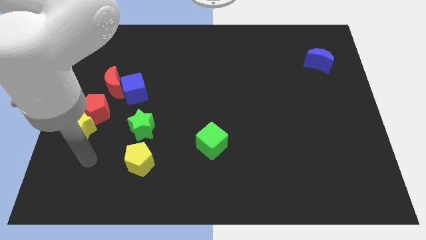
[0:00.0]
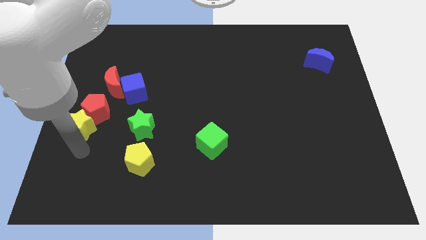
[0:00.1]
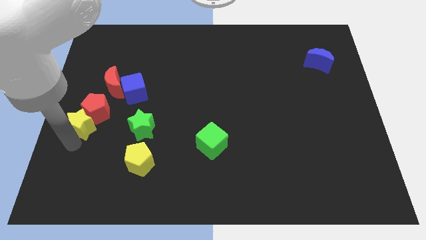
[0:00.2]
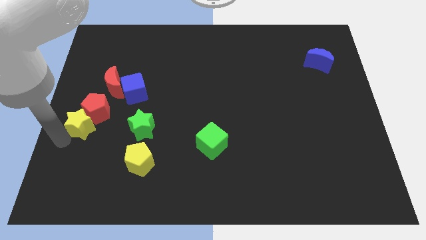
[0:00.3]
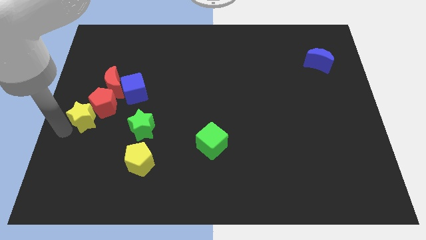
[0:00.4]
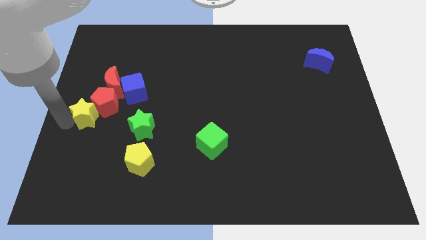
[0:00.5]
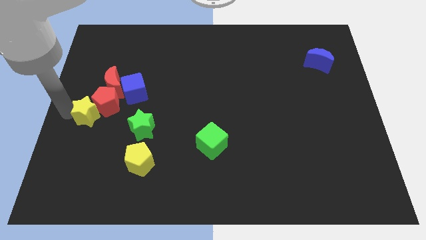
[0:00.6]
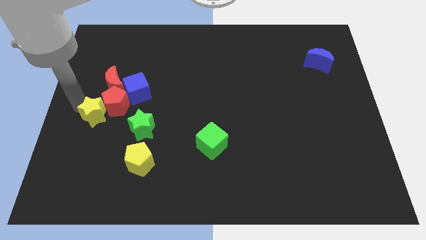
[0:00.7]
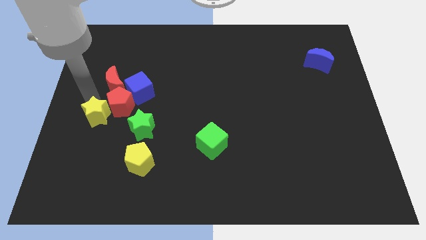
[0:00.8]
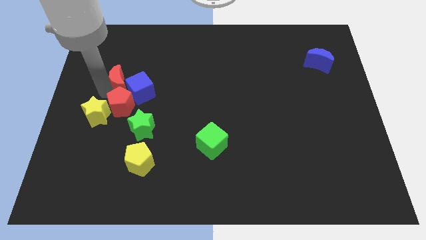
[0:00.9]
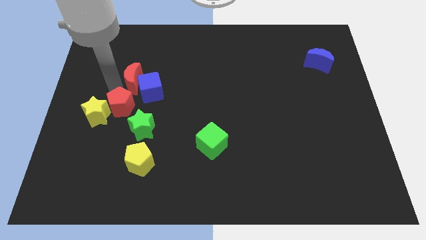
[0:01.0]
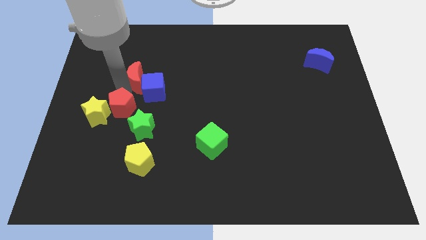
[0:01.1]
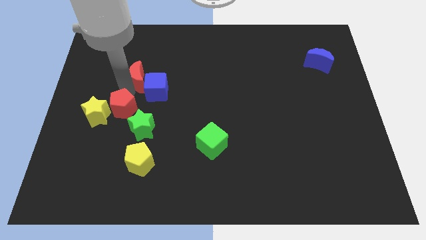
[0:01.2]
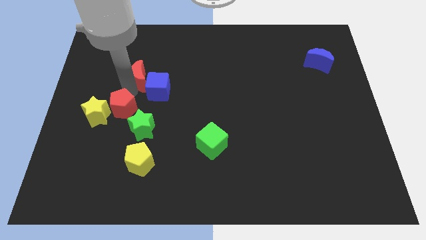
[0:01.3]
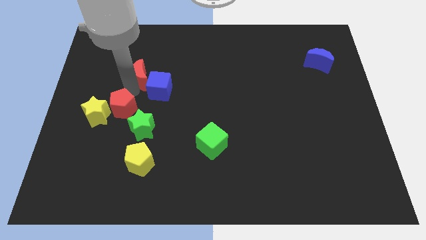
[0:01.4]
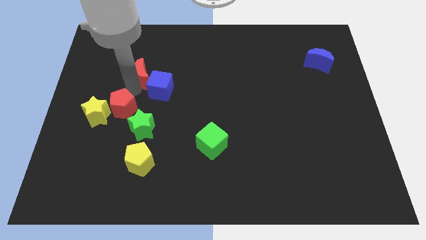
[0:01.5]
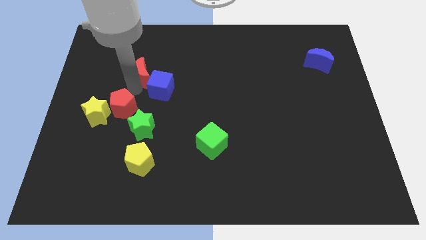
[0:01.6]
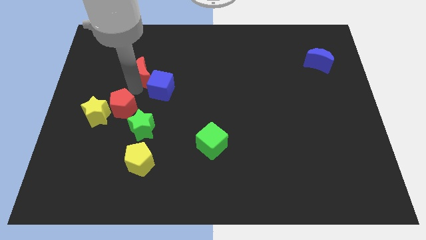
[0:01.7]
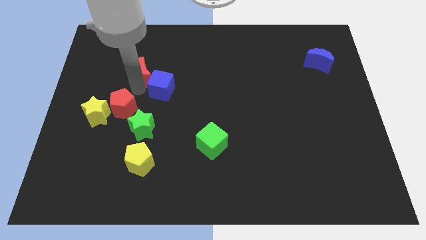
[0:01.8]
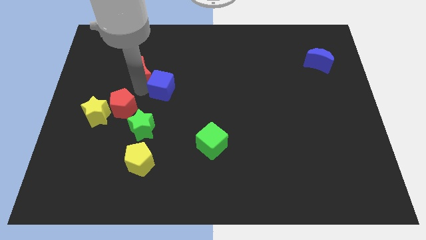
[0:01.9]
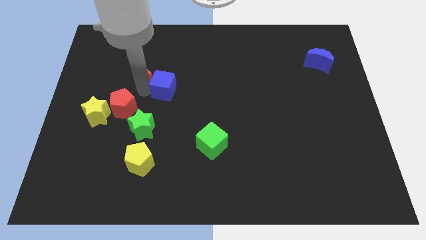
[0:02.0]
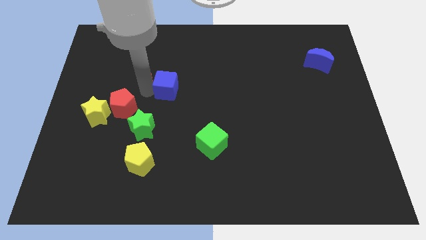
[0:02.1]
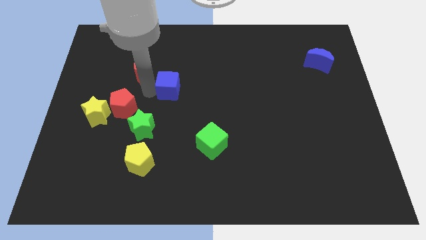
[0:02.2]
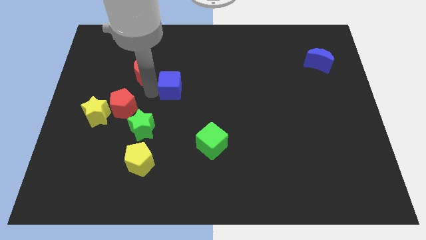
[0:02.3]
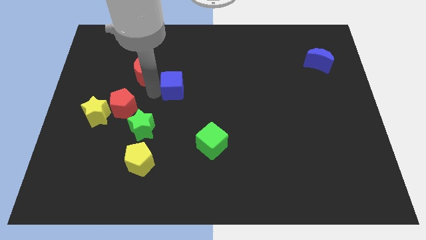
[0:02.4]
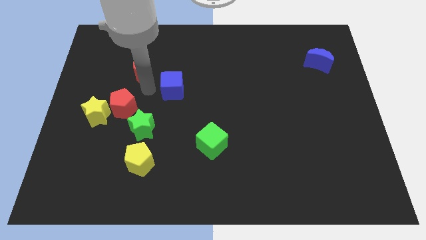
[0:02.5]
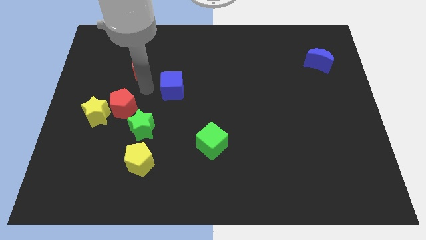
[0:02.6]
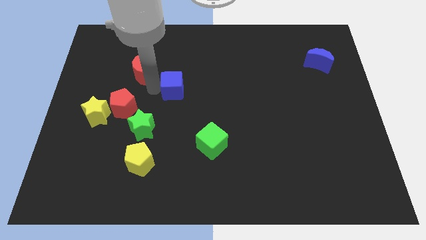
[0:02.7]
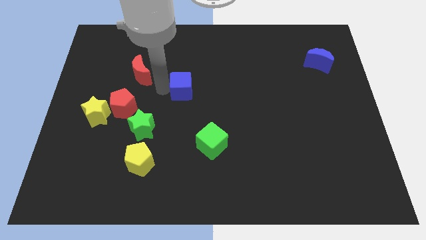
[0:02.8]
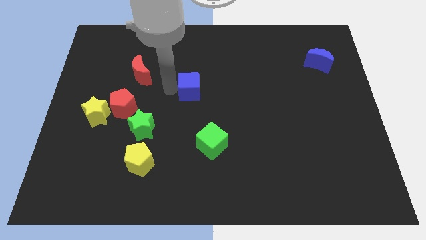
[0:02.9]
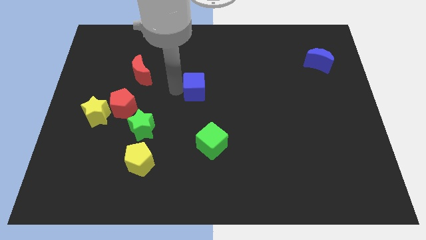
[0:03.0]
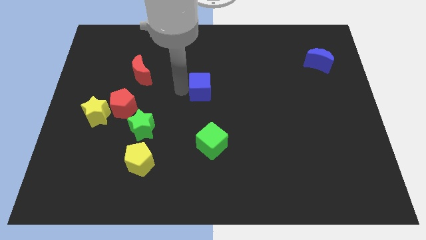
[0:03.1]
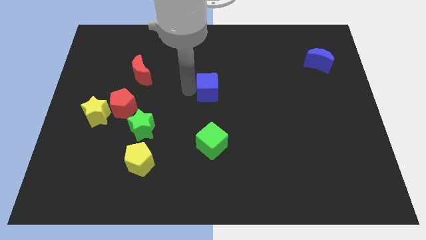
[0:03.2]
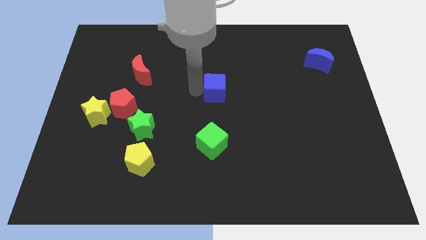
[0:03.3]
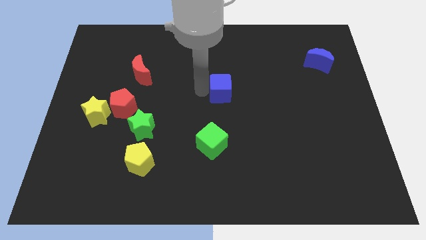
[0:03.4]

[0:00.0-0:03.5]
move the blue cube to the right

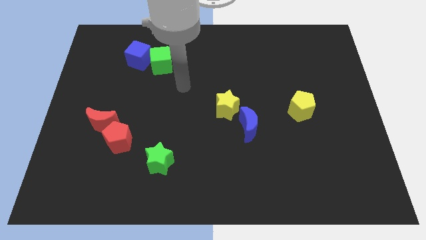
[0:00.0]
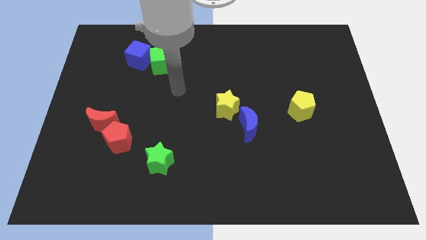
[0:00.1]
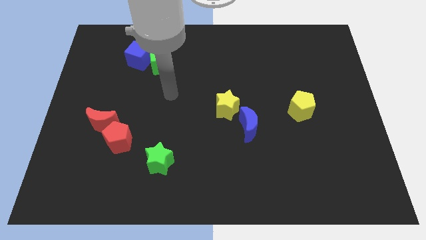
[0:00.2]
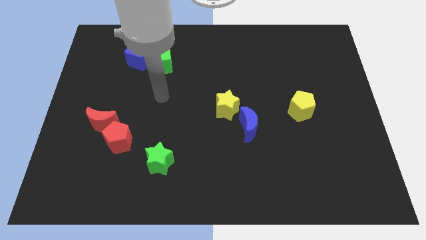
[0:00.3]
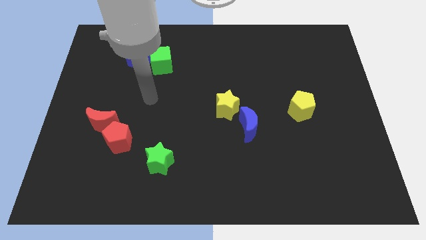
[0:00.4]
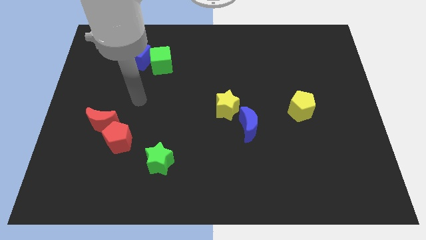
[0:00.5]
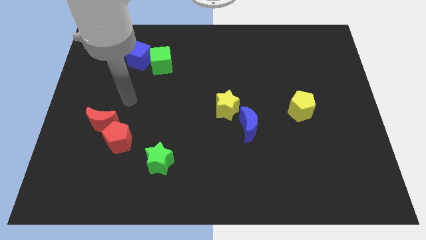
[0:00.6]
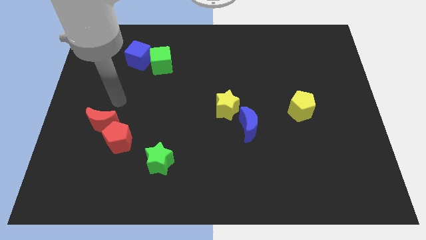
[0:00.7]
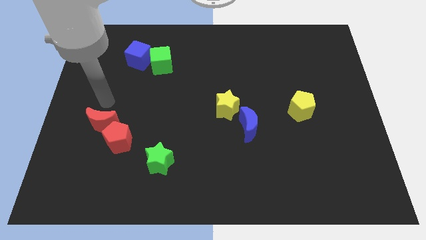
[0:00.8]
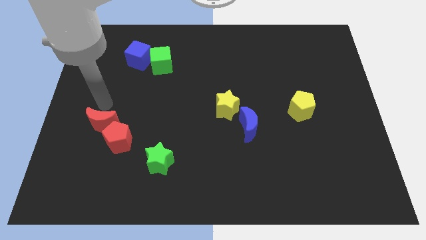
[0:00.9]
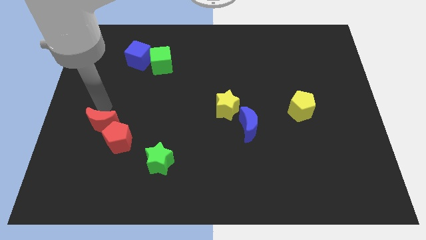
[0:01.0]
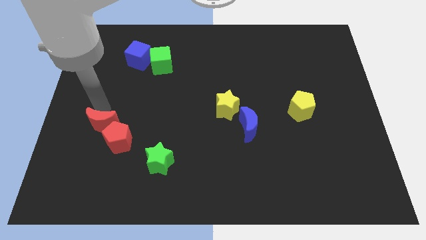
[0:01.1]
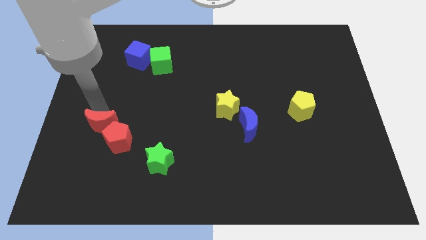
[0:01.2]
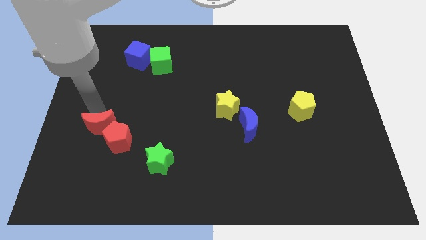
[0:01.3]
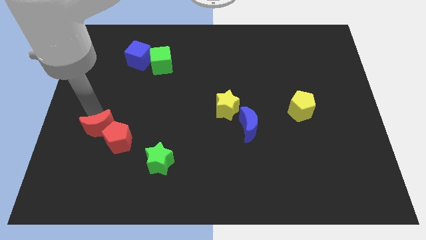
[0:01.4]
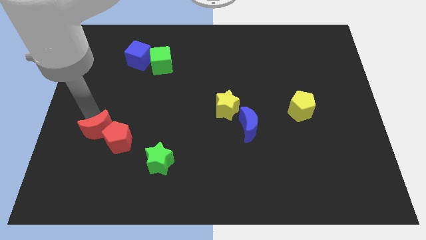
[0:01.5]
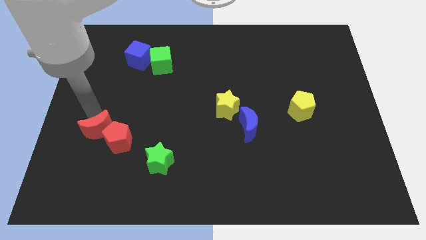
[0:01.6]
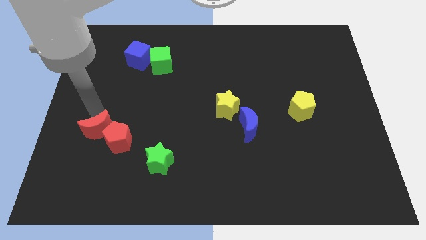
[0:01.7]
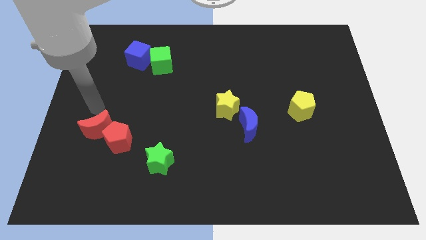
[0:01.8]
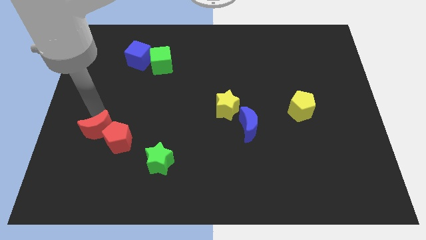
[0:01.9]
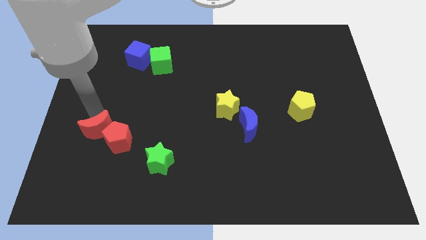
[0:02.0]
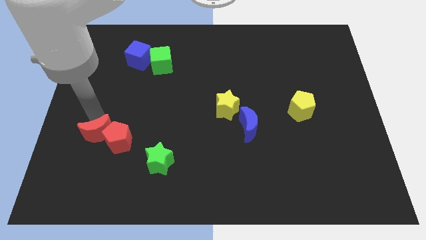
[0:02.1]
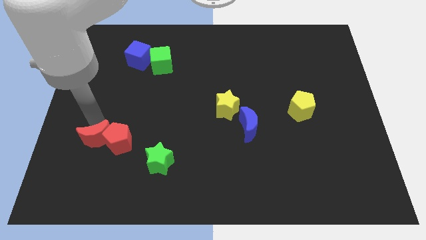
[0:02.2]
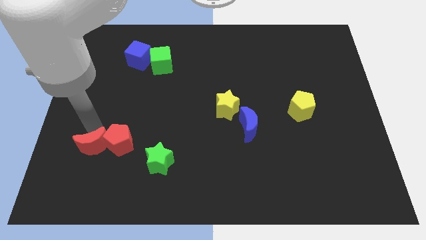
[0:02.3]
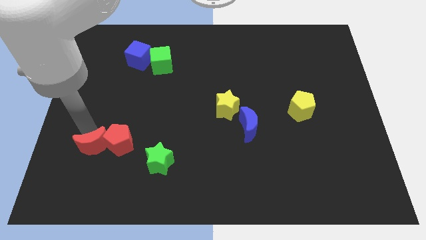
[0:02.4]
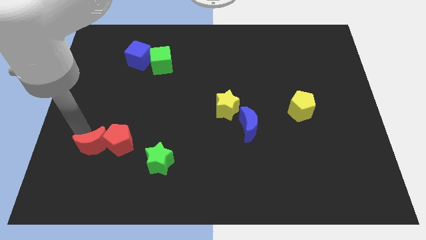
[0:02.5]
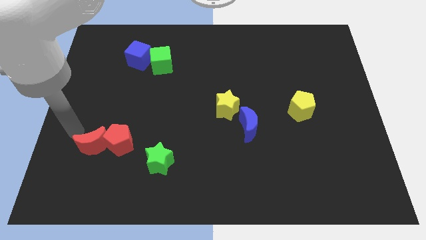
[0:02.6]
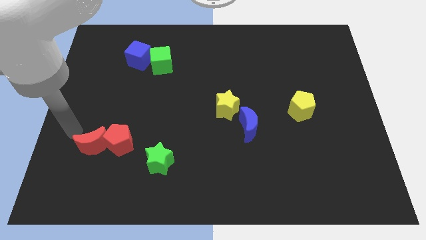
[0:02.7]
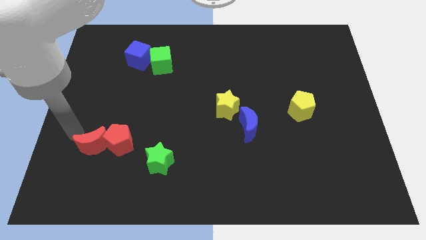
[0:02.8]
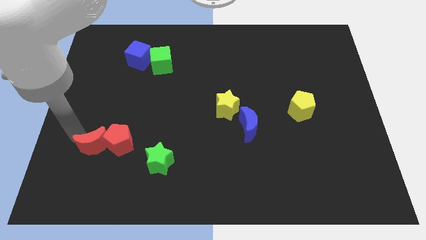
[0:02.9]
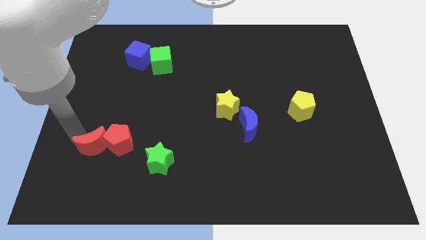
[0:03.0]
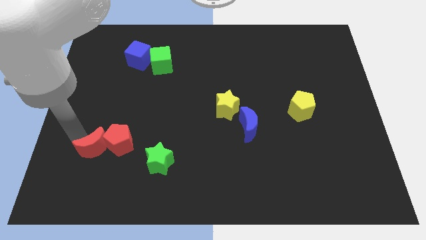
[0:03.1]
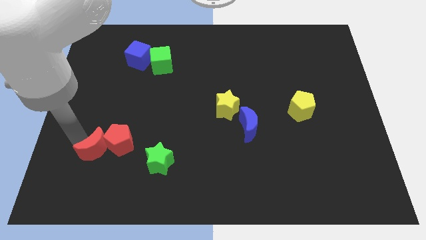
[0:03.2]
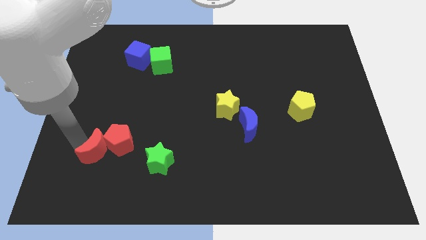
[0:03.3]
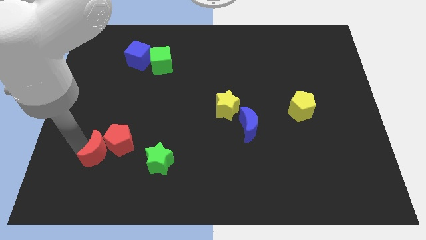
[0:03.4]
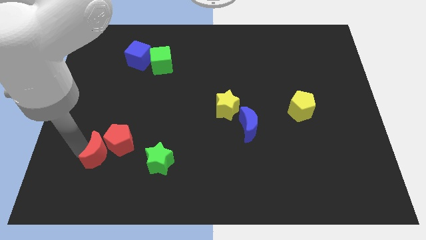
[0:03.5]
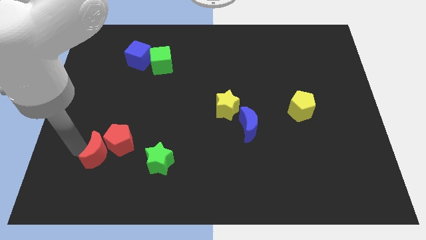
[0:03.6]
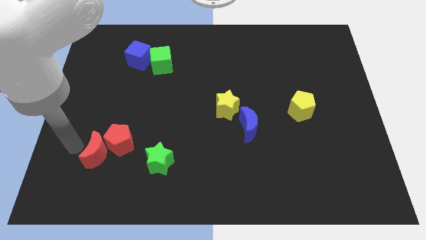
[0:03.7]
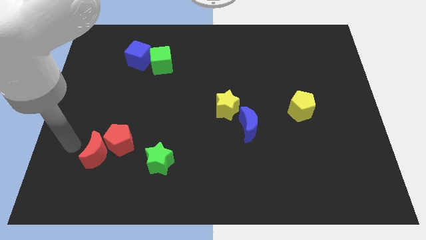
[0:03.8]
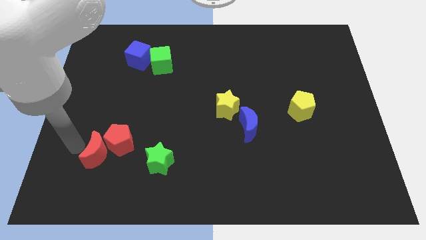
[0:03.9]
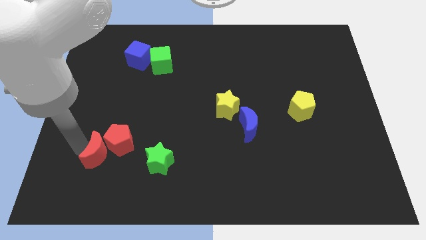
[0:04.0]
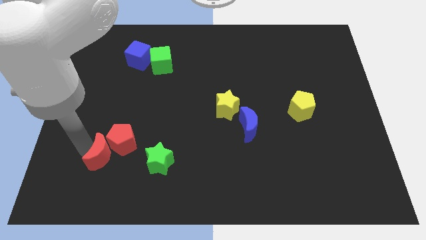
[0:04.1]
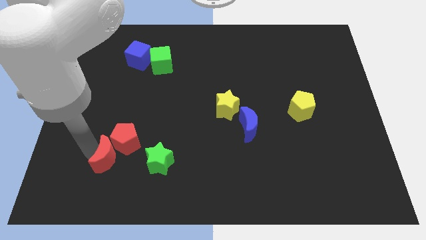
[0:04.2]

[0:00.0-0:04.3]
move the red moon a little bit downwards and to the right diagonally

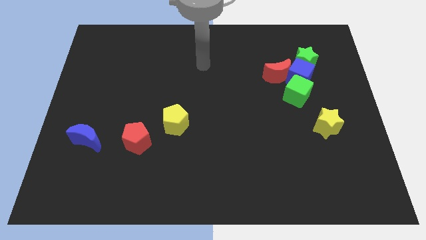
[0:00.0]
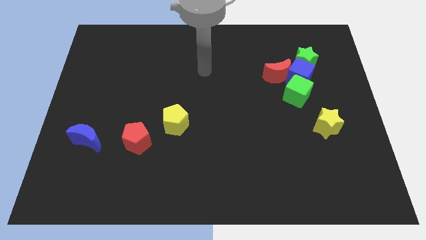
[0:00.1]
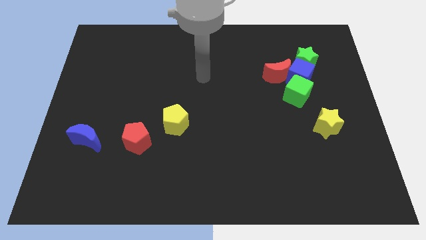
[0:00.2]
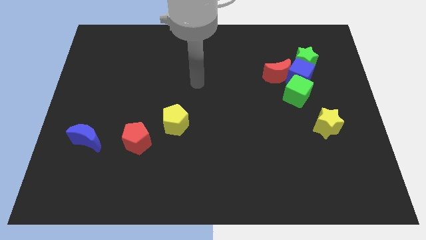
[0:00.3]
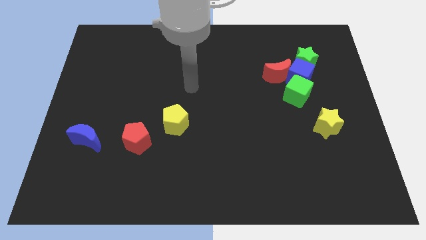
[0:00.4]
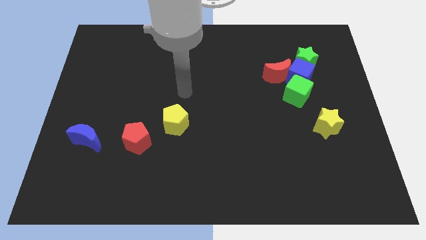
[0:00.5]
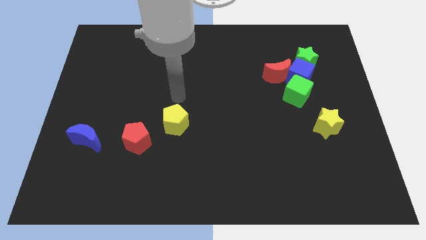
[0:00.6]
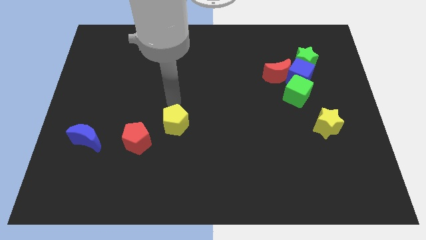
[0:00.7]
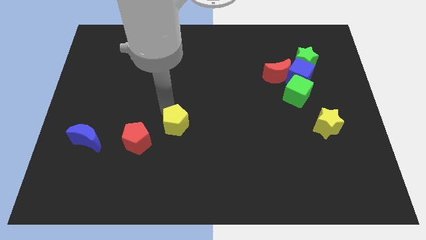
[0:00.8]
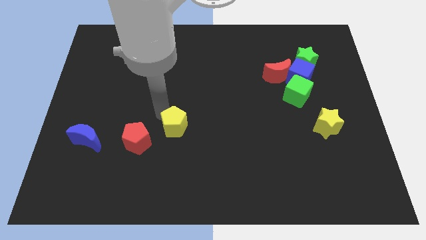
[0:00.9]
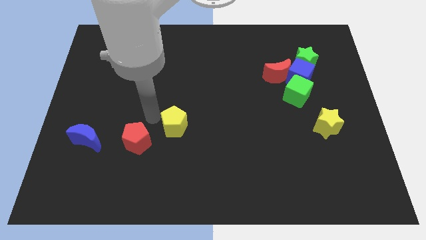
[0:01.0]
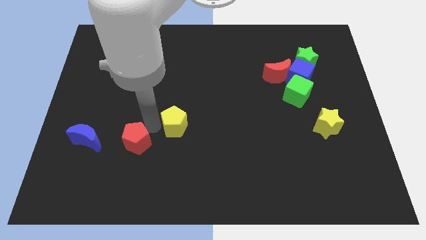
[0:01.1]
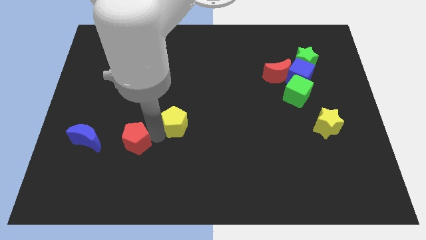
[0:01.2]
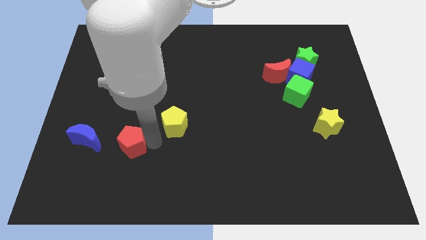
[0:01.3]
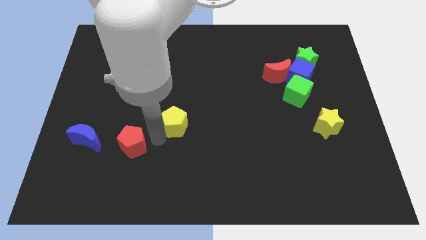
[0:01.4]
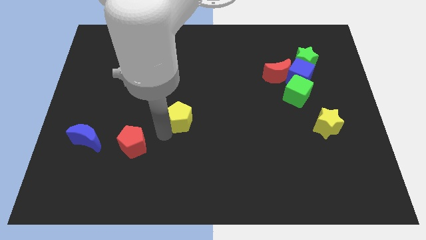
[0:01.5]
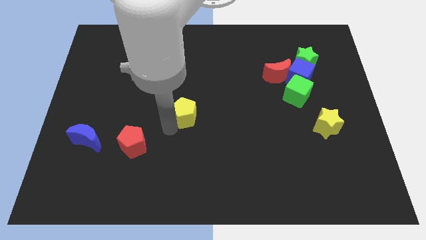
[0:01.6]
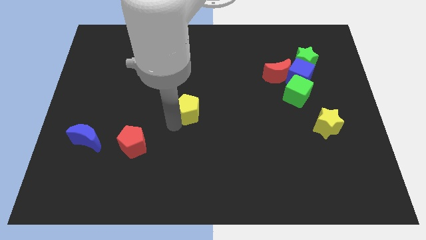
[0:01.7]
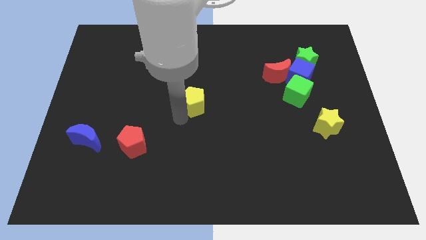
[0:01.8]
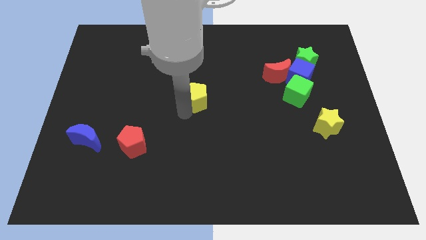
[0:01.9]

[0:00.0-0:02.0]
slide the yellow pentagon slightly diagonally upwards and right
